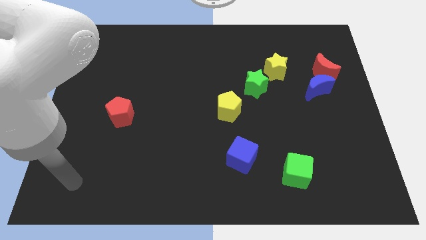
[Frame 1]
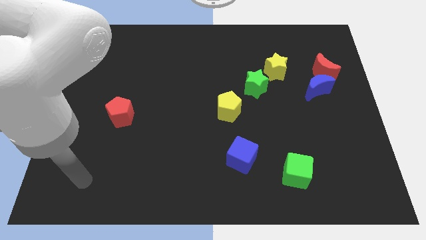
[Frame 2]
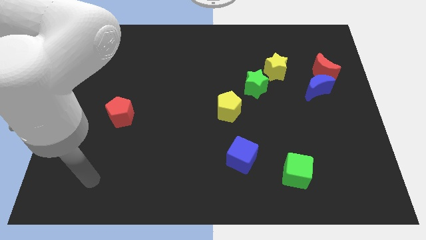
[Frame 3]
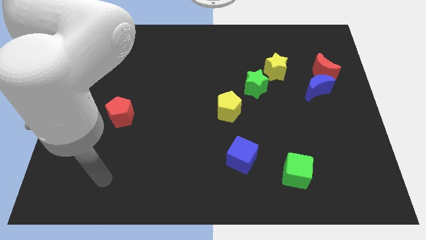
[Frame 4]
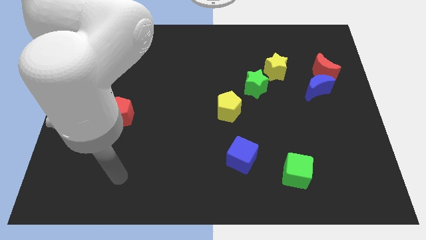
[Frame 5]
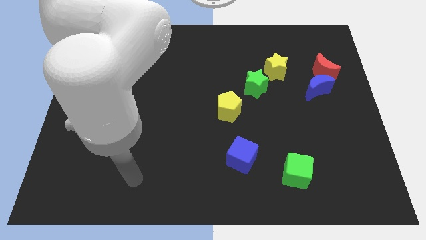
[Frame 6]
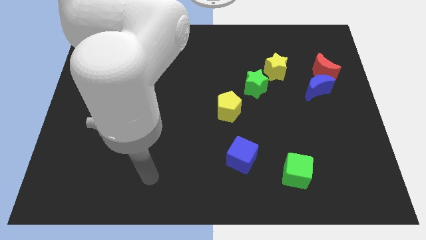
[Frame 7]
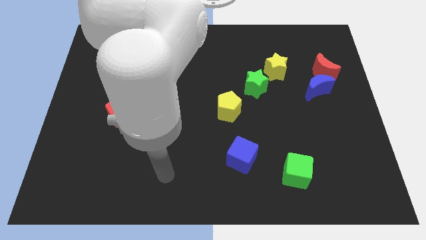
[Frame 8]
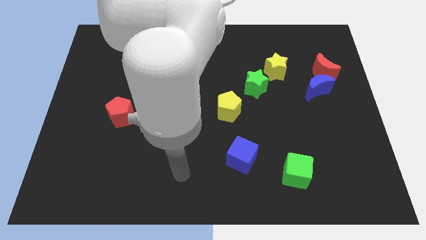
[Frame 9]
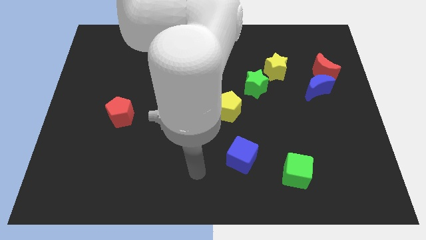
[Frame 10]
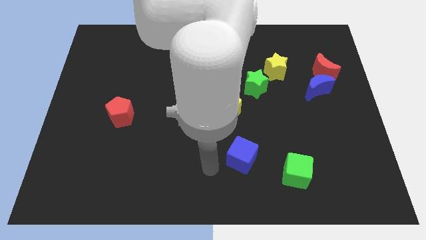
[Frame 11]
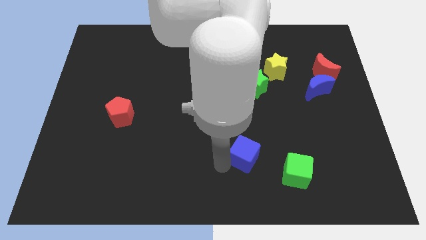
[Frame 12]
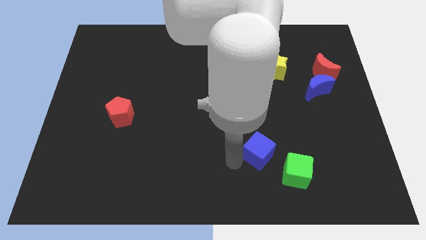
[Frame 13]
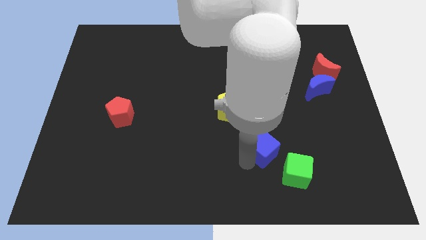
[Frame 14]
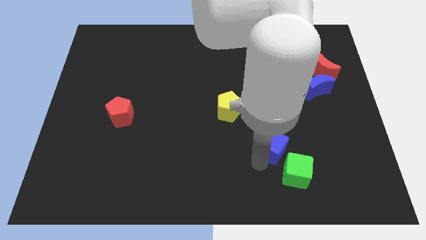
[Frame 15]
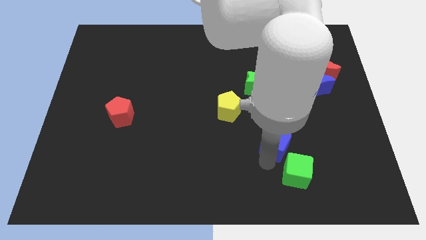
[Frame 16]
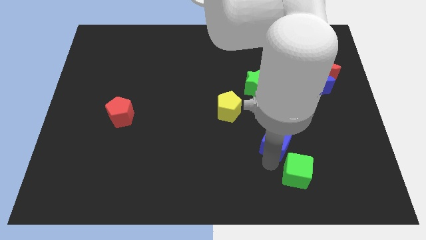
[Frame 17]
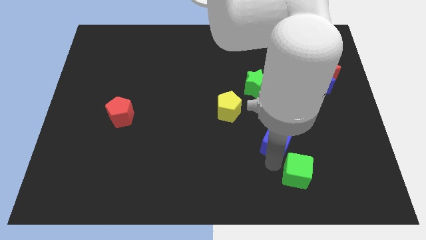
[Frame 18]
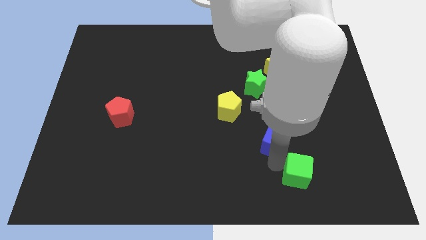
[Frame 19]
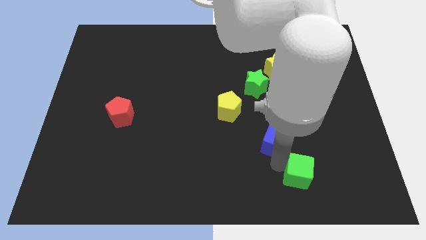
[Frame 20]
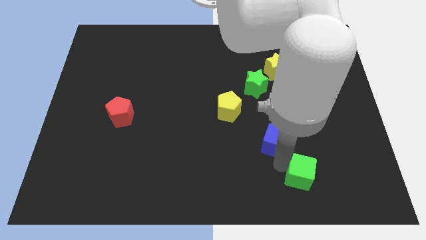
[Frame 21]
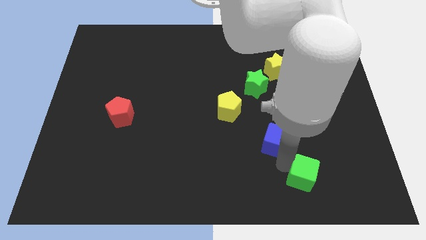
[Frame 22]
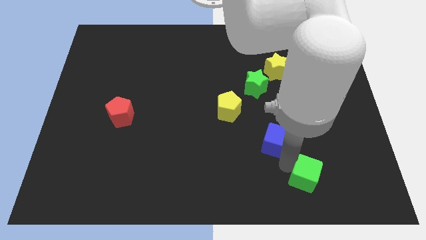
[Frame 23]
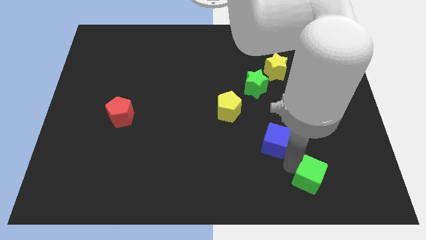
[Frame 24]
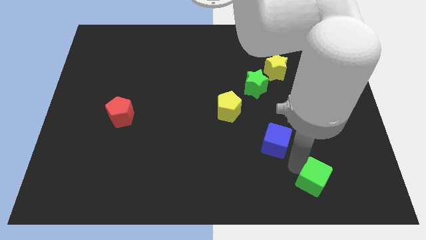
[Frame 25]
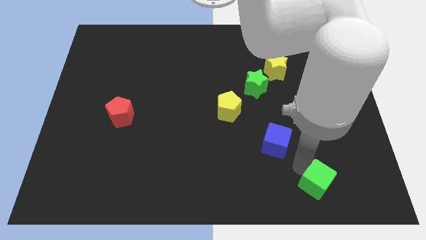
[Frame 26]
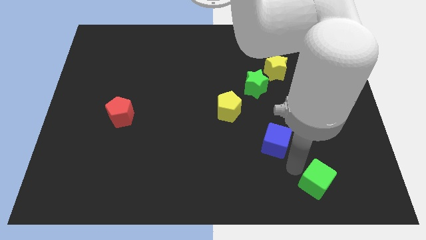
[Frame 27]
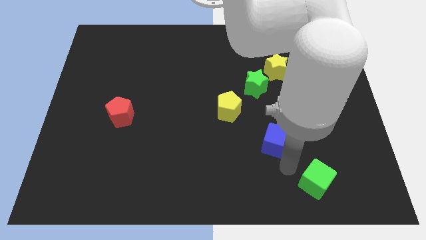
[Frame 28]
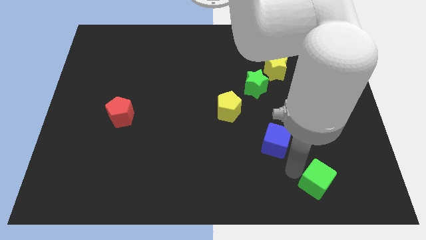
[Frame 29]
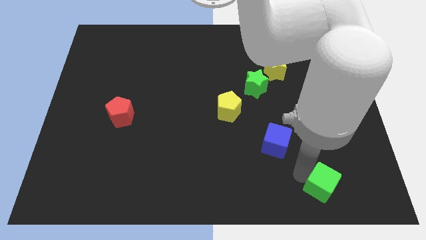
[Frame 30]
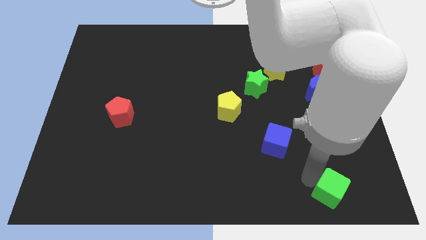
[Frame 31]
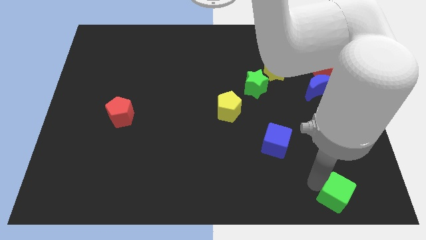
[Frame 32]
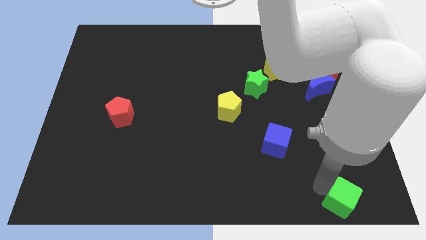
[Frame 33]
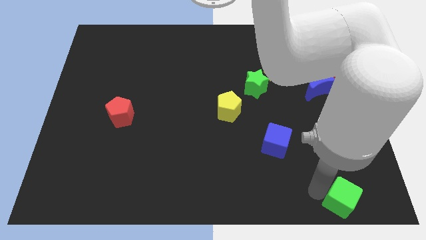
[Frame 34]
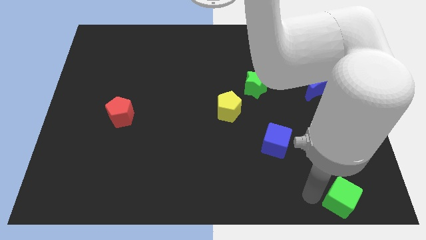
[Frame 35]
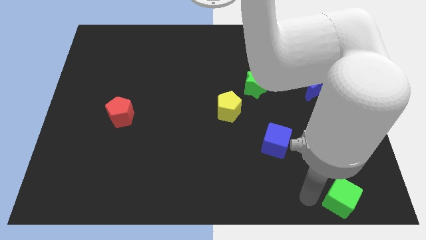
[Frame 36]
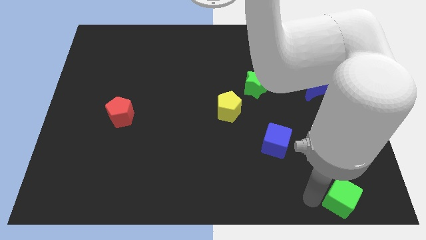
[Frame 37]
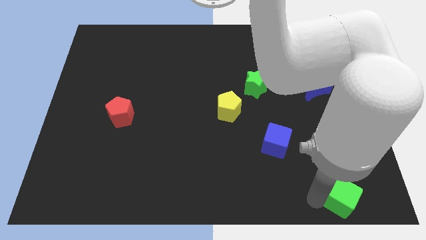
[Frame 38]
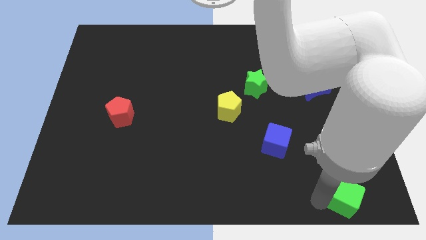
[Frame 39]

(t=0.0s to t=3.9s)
slide the green cube to the bottom right

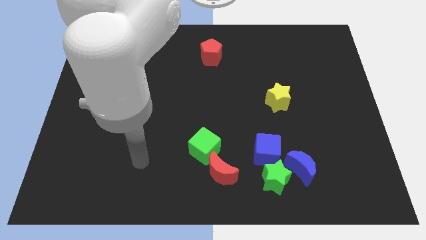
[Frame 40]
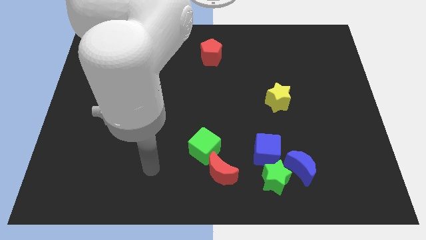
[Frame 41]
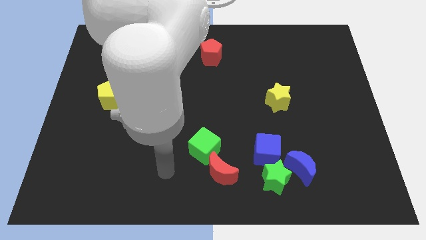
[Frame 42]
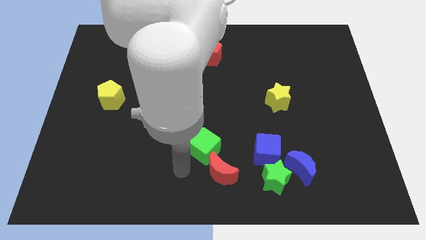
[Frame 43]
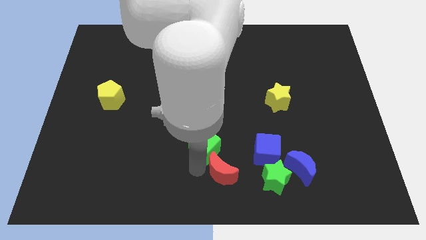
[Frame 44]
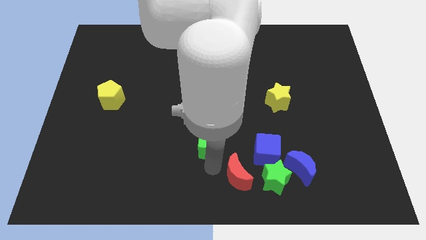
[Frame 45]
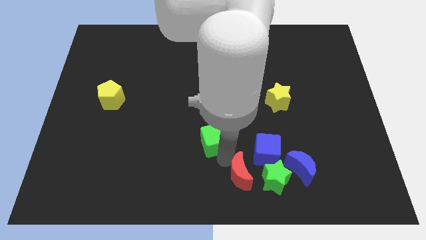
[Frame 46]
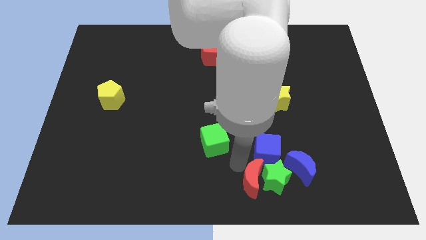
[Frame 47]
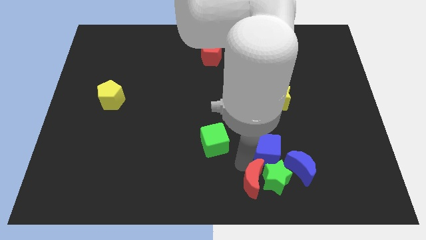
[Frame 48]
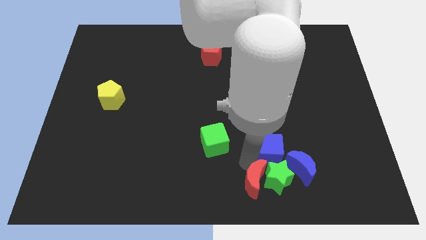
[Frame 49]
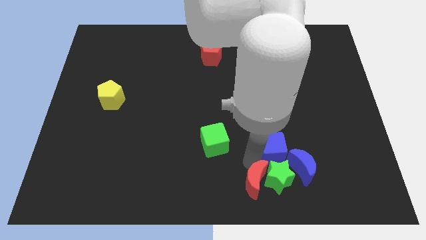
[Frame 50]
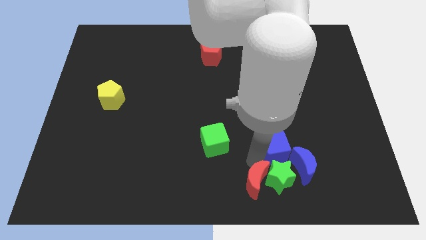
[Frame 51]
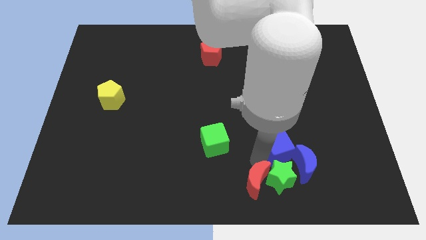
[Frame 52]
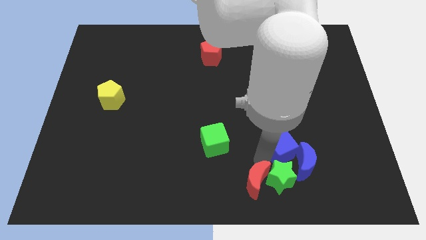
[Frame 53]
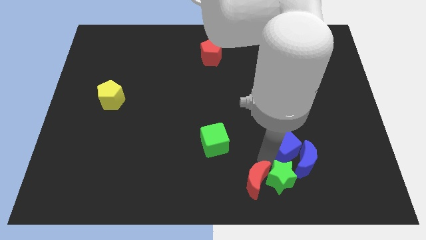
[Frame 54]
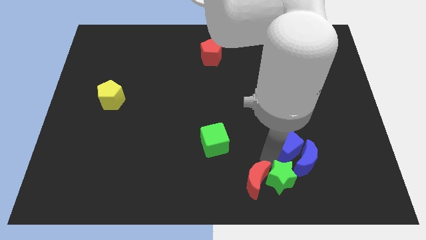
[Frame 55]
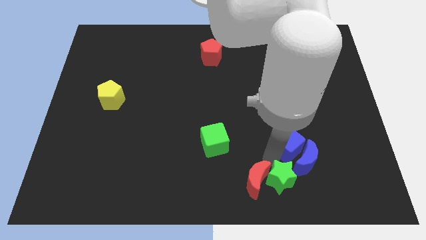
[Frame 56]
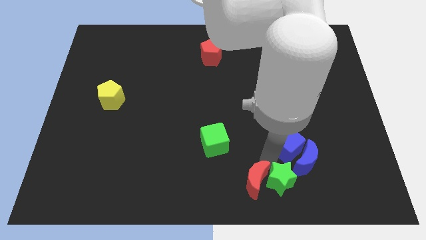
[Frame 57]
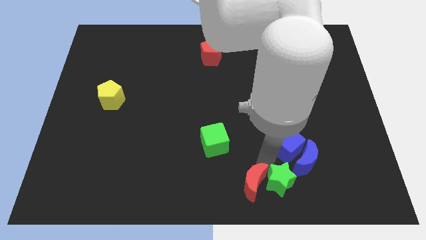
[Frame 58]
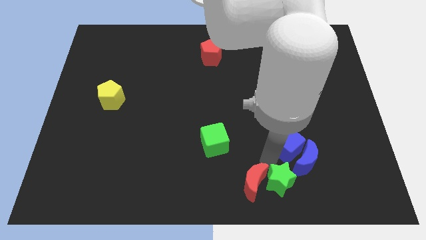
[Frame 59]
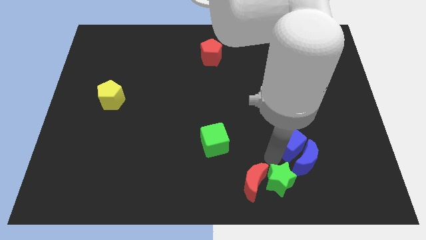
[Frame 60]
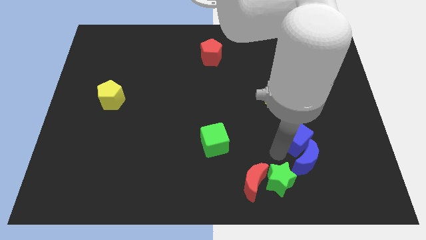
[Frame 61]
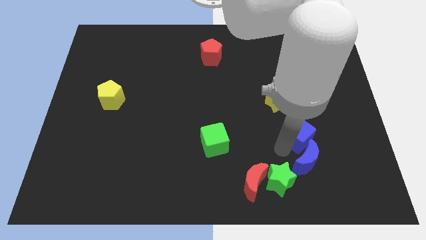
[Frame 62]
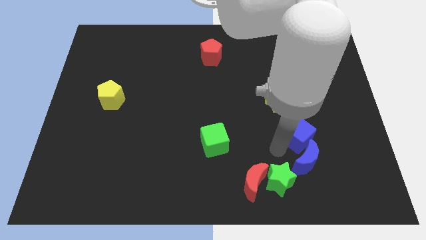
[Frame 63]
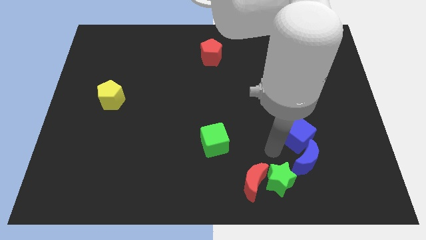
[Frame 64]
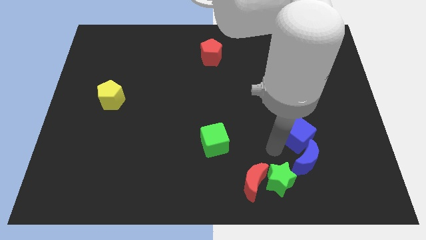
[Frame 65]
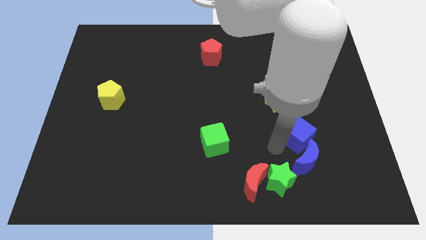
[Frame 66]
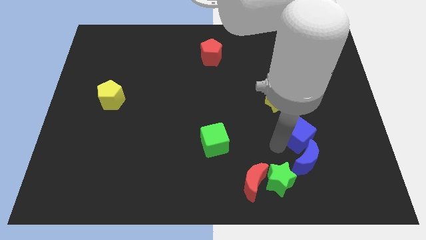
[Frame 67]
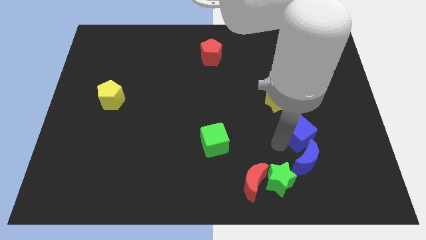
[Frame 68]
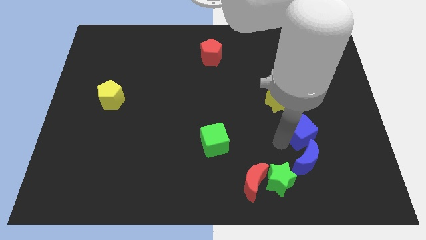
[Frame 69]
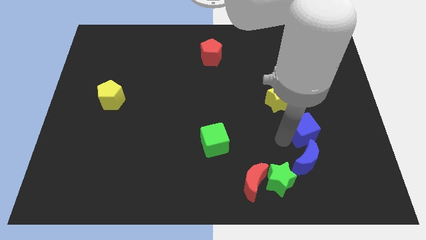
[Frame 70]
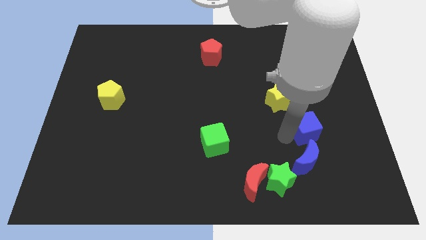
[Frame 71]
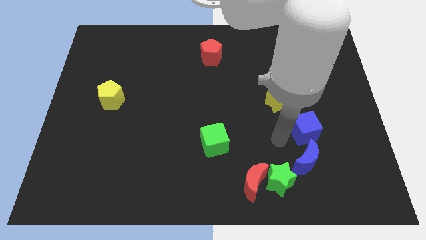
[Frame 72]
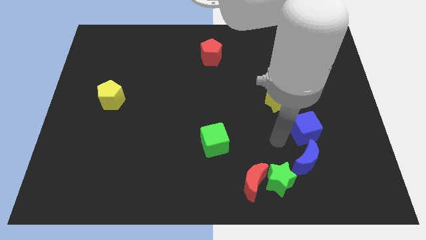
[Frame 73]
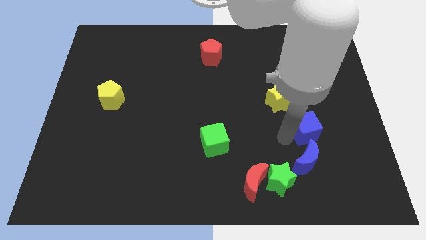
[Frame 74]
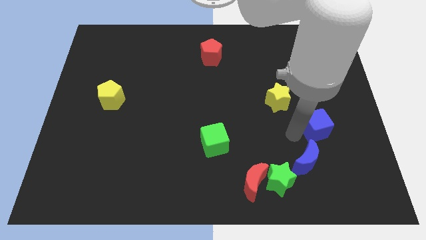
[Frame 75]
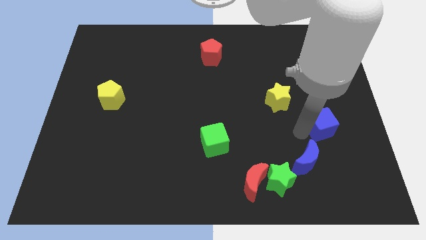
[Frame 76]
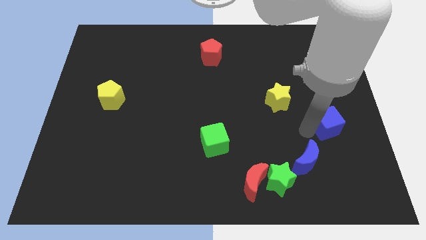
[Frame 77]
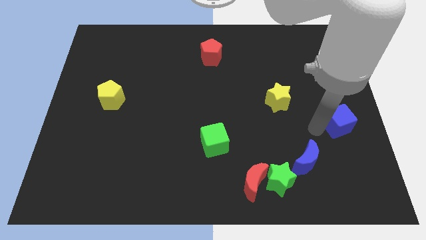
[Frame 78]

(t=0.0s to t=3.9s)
move the blue cube to the right side

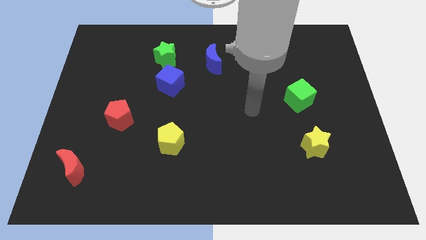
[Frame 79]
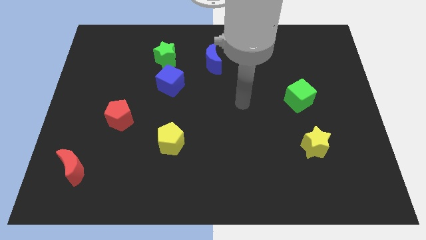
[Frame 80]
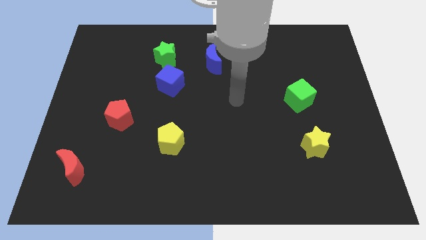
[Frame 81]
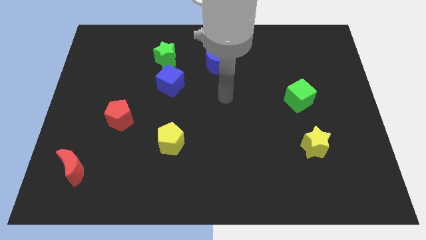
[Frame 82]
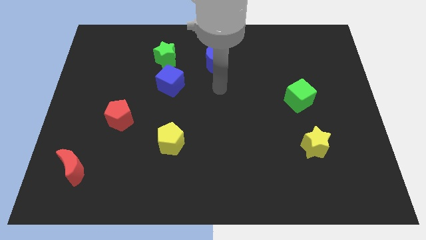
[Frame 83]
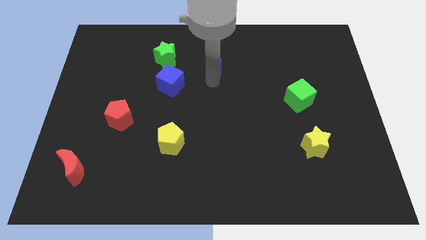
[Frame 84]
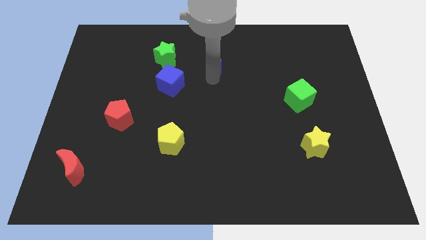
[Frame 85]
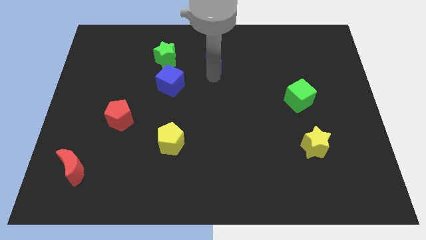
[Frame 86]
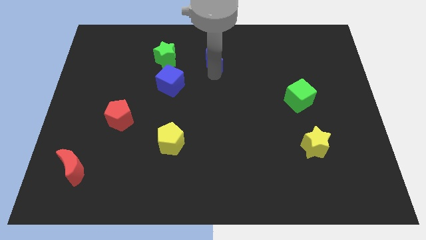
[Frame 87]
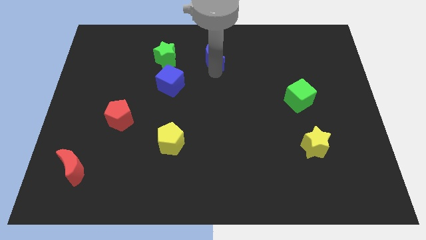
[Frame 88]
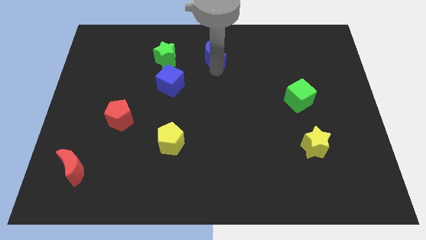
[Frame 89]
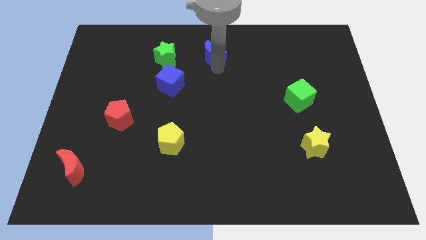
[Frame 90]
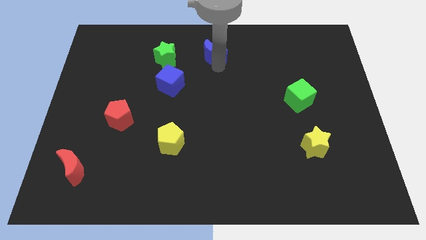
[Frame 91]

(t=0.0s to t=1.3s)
push the blue moon to the towards your base
